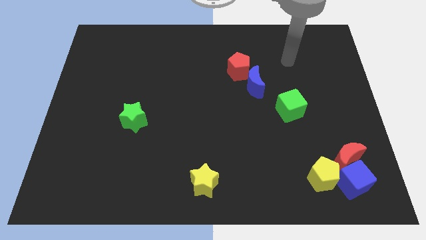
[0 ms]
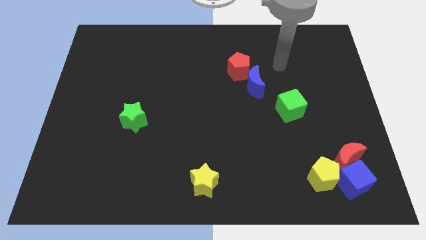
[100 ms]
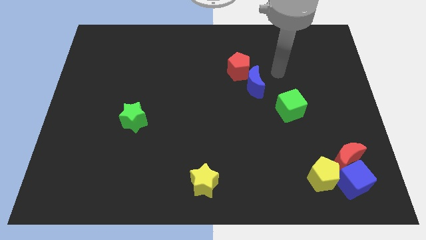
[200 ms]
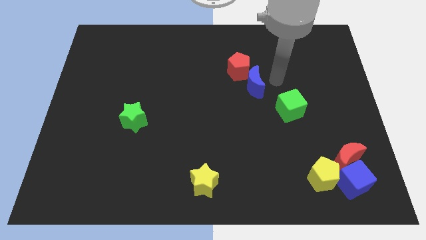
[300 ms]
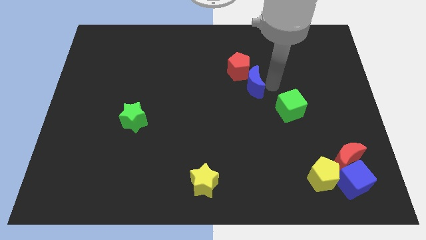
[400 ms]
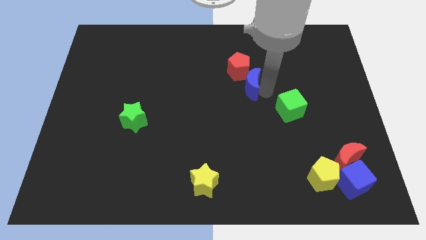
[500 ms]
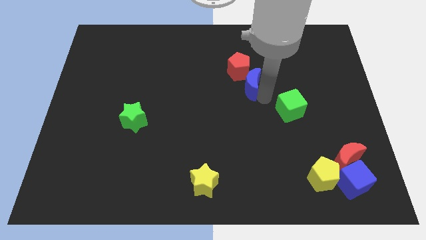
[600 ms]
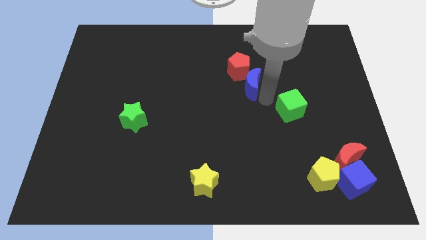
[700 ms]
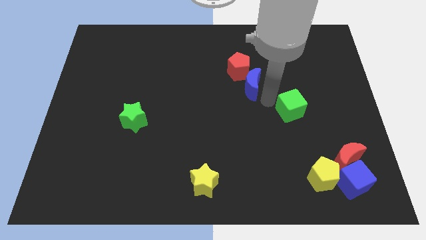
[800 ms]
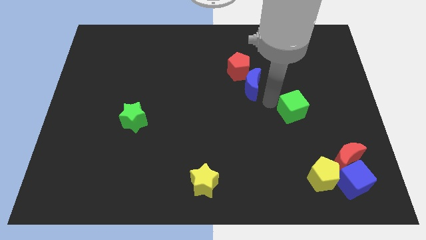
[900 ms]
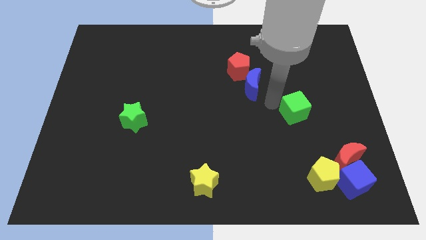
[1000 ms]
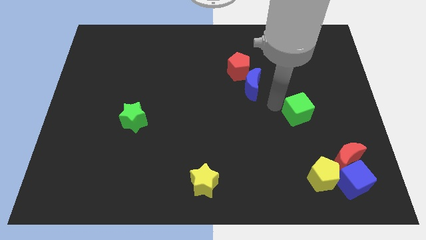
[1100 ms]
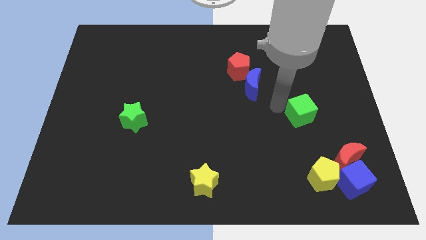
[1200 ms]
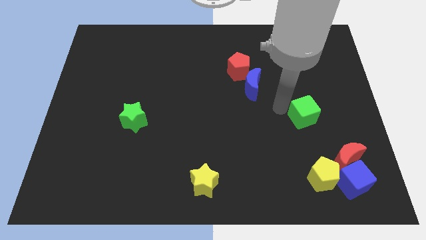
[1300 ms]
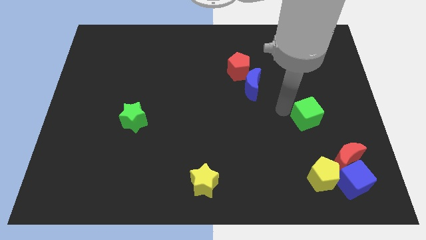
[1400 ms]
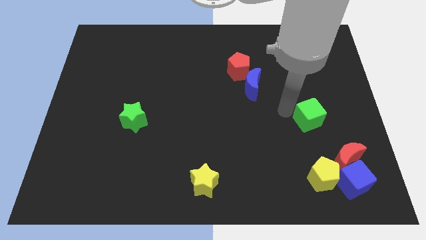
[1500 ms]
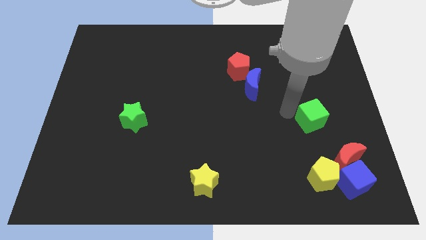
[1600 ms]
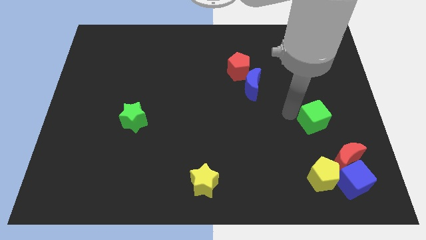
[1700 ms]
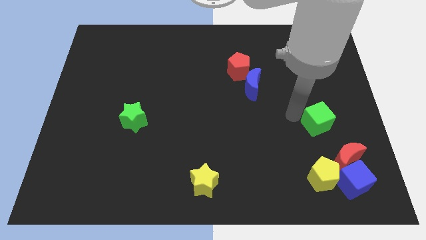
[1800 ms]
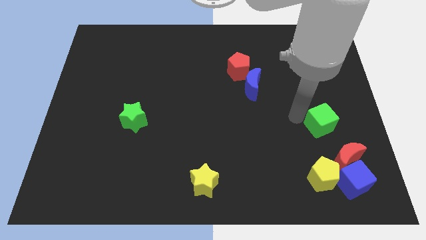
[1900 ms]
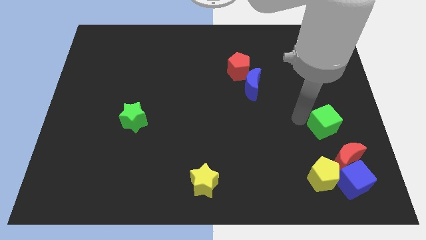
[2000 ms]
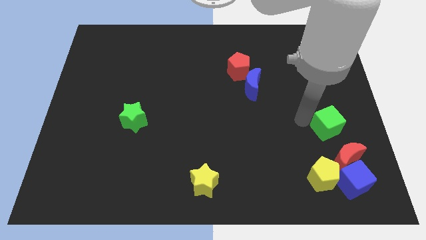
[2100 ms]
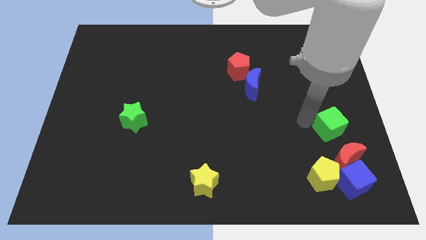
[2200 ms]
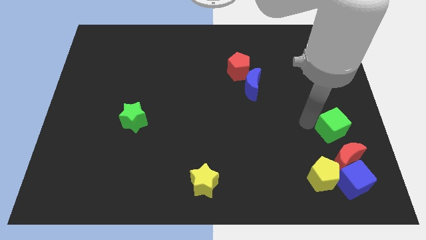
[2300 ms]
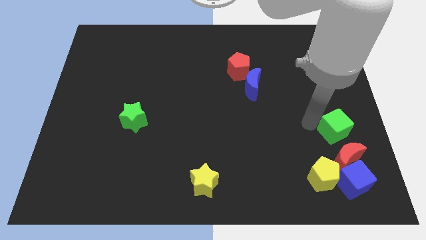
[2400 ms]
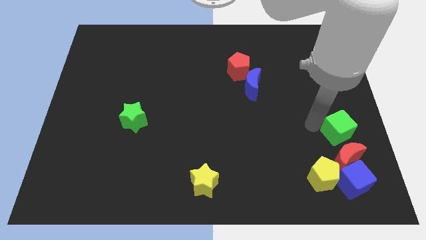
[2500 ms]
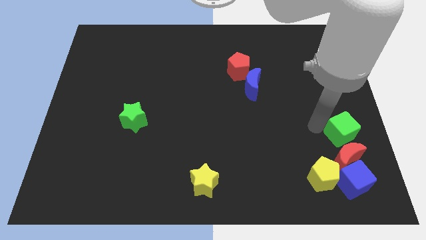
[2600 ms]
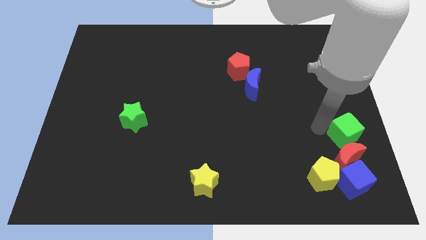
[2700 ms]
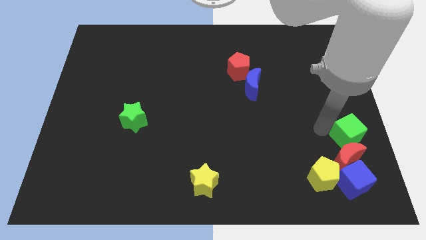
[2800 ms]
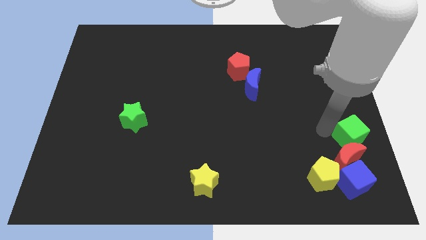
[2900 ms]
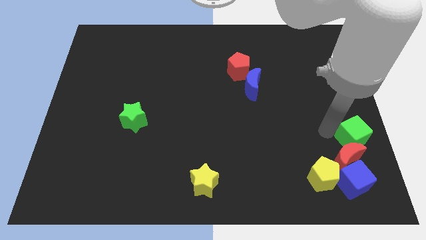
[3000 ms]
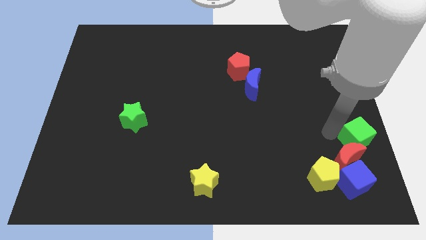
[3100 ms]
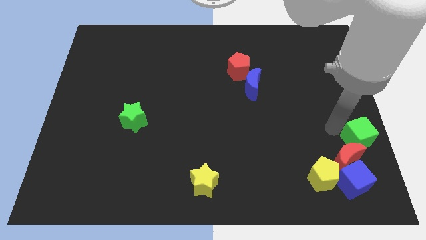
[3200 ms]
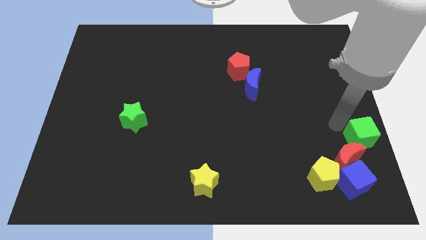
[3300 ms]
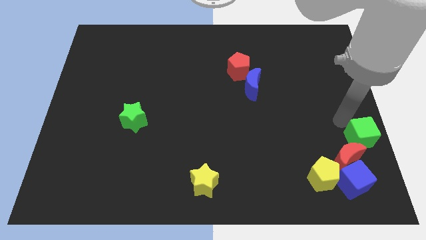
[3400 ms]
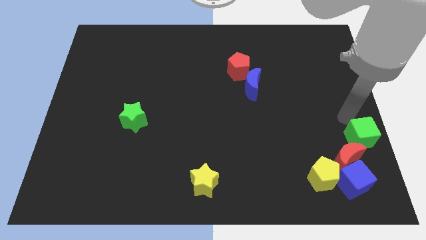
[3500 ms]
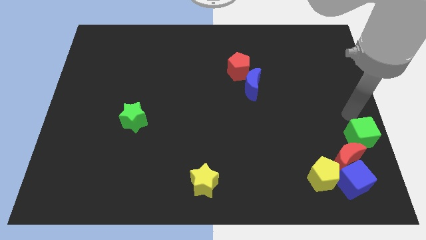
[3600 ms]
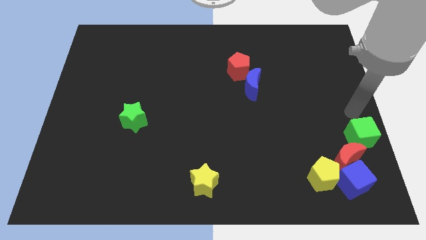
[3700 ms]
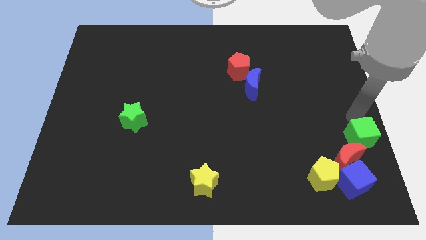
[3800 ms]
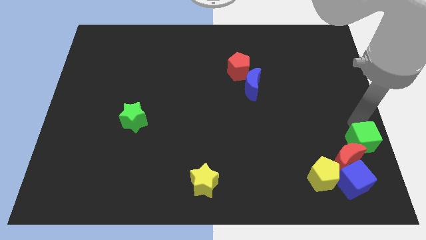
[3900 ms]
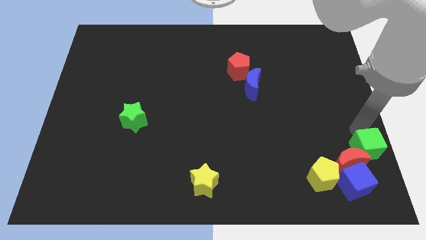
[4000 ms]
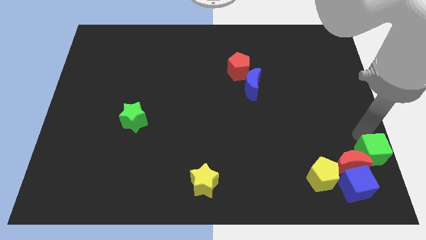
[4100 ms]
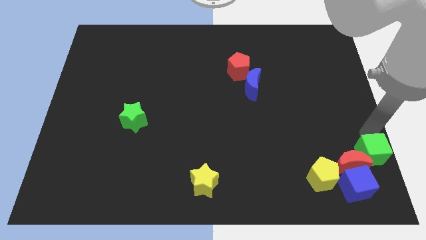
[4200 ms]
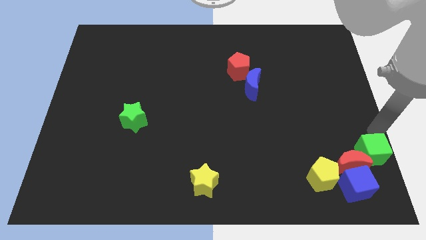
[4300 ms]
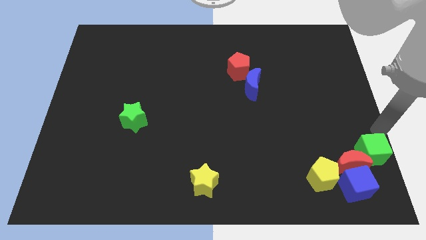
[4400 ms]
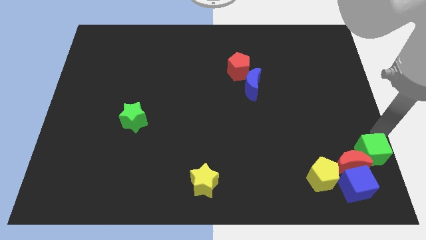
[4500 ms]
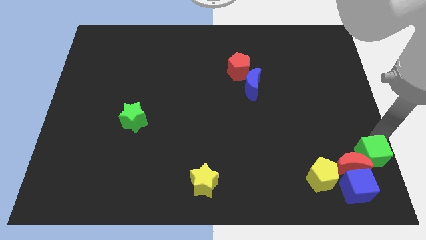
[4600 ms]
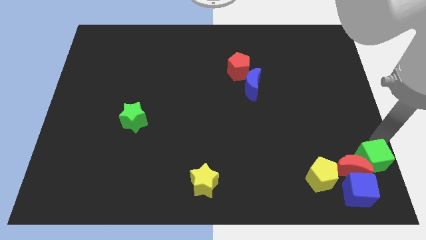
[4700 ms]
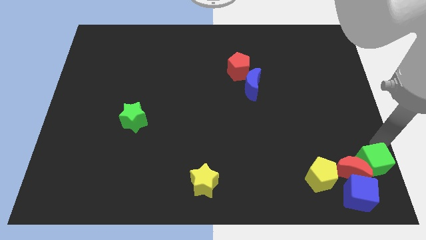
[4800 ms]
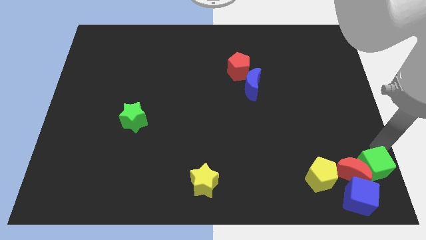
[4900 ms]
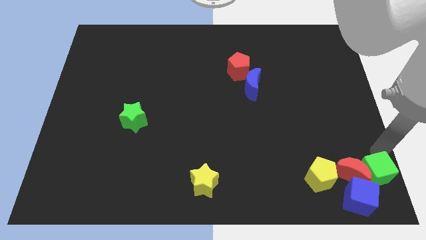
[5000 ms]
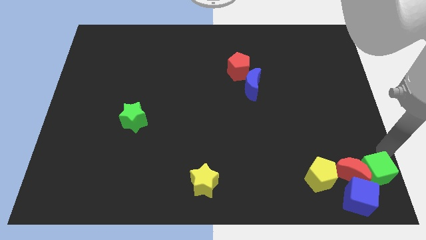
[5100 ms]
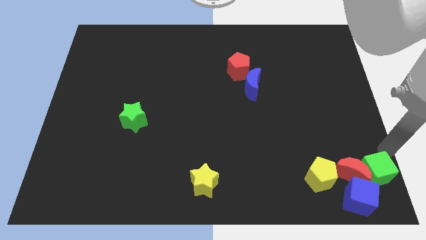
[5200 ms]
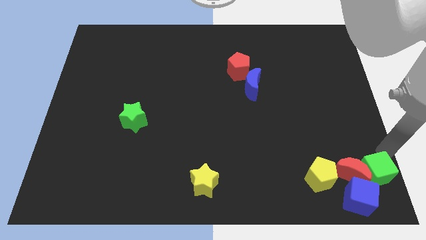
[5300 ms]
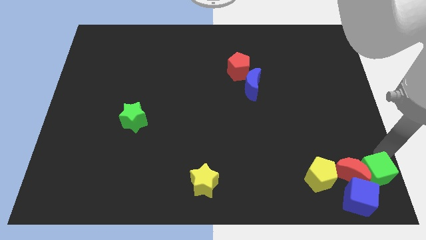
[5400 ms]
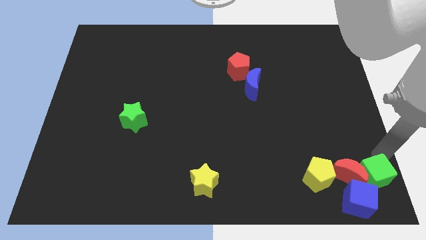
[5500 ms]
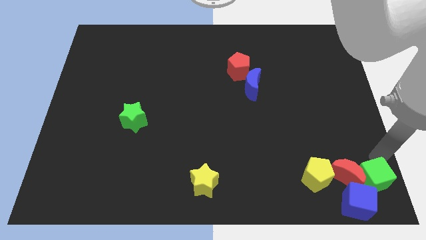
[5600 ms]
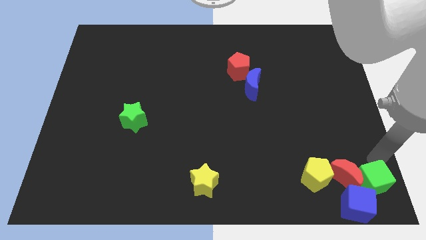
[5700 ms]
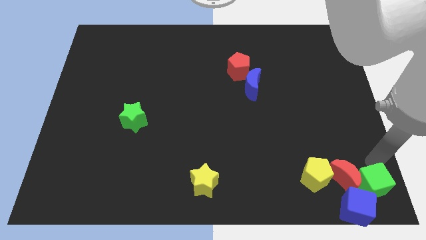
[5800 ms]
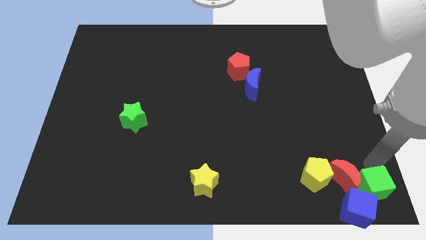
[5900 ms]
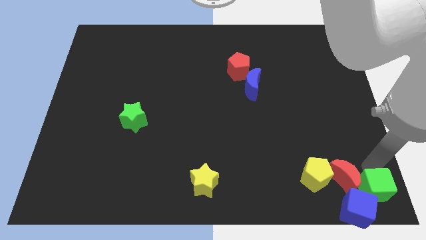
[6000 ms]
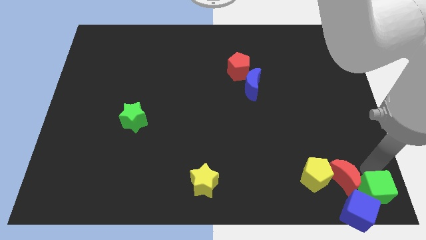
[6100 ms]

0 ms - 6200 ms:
push the green cube next to the blue cube

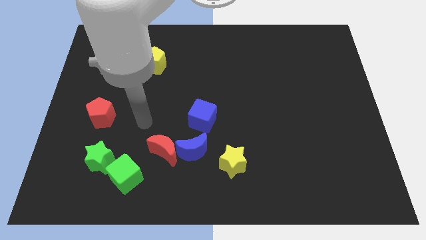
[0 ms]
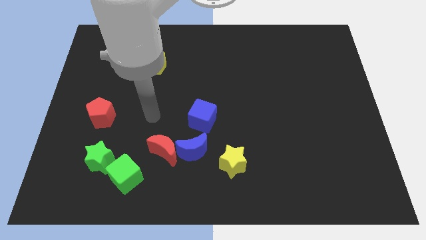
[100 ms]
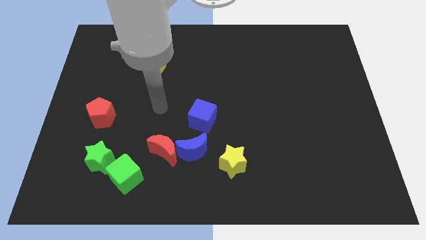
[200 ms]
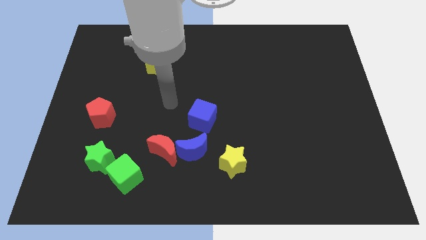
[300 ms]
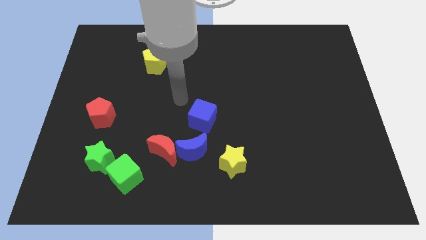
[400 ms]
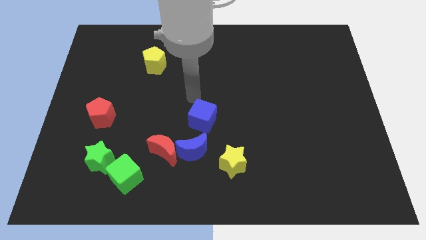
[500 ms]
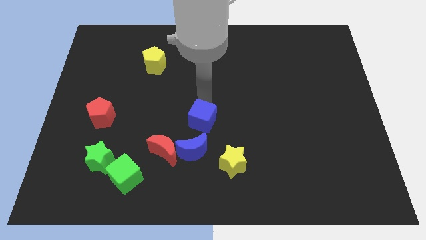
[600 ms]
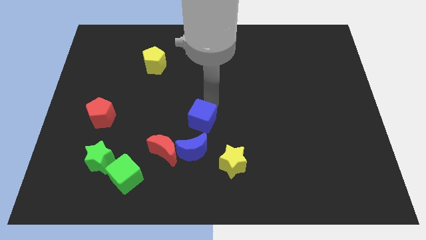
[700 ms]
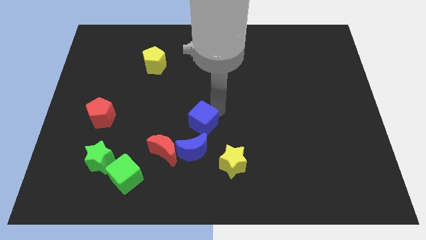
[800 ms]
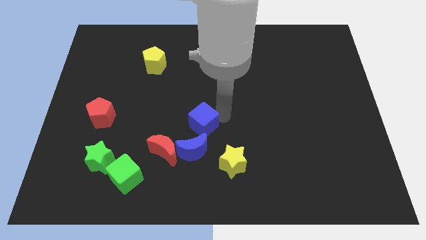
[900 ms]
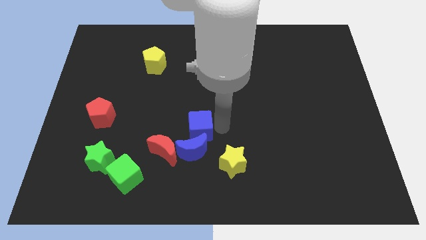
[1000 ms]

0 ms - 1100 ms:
put the blue moon next to the blue cube
